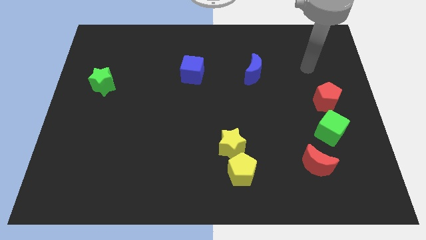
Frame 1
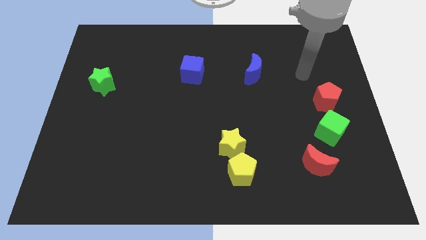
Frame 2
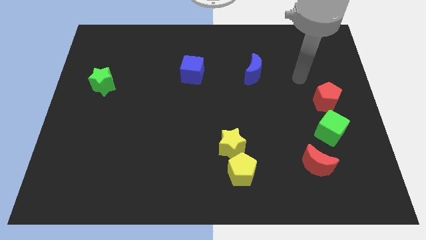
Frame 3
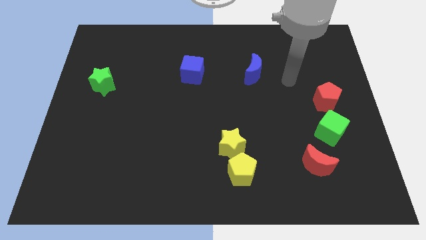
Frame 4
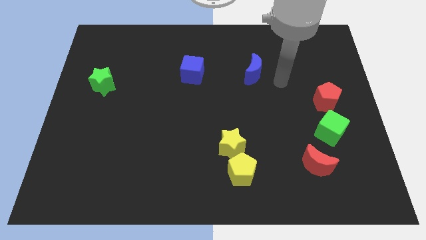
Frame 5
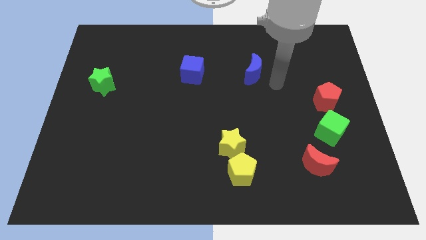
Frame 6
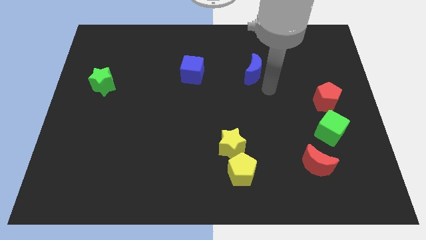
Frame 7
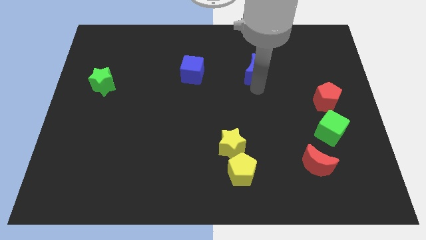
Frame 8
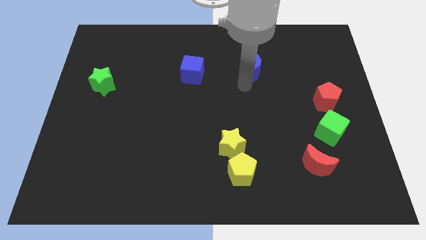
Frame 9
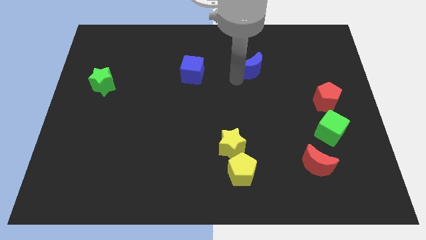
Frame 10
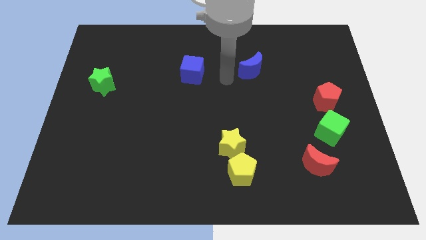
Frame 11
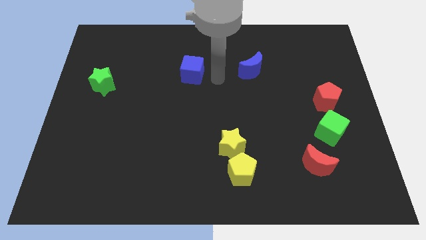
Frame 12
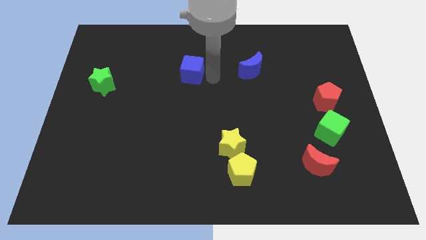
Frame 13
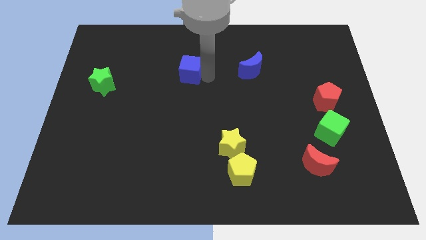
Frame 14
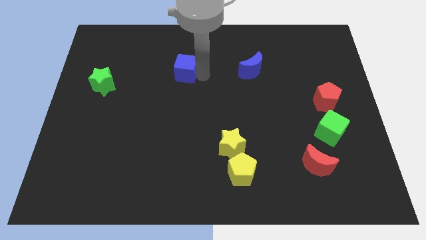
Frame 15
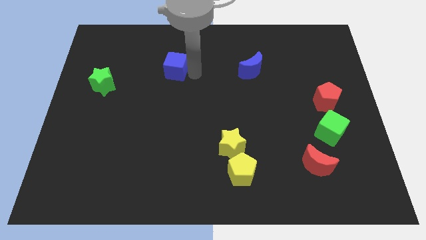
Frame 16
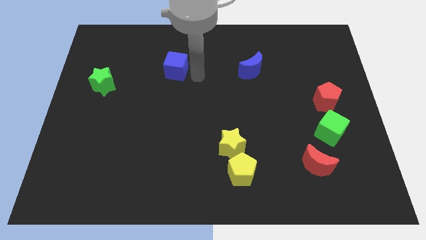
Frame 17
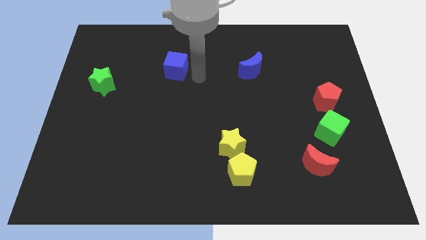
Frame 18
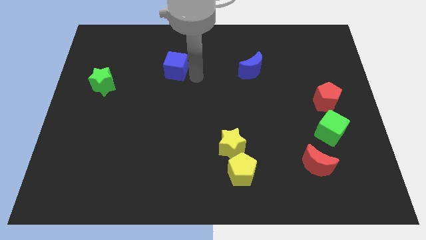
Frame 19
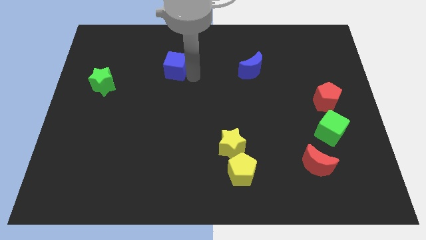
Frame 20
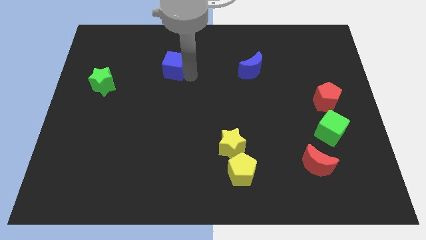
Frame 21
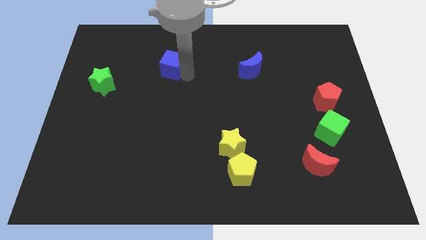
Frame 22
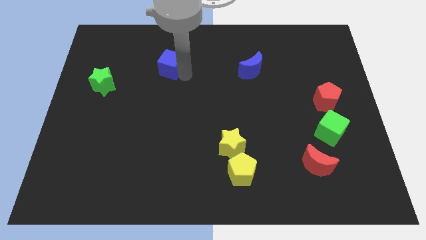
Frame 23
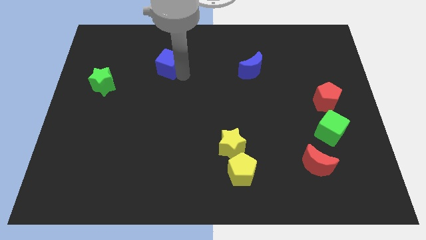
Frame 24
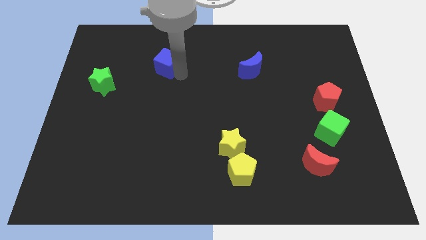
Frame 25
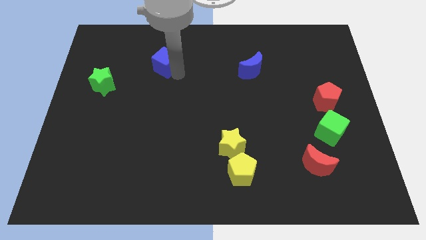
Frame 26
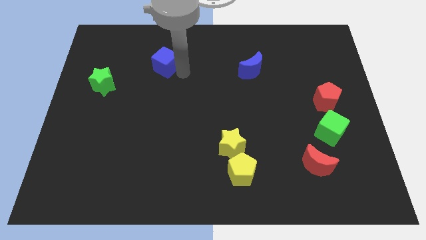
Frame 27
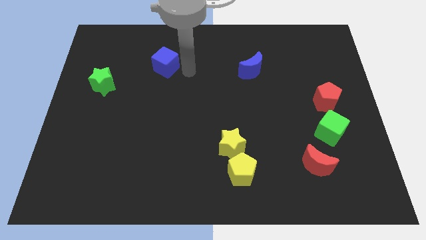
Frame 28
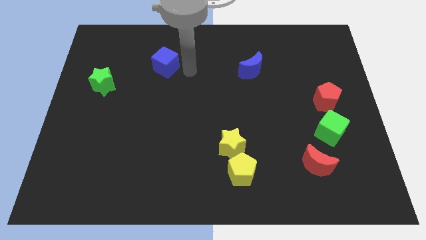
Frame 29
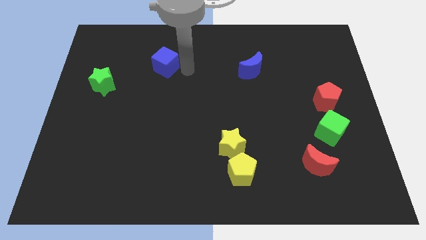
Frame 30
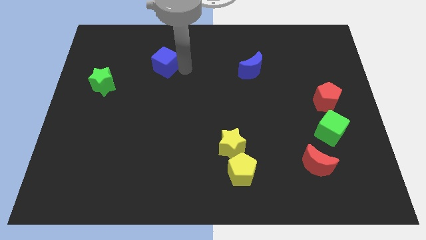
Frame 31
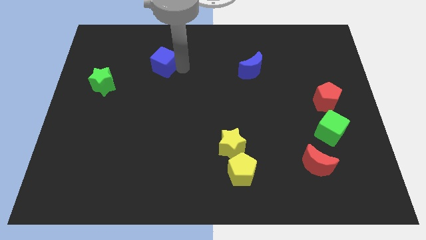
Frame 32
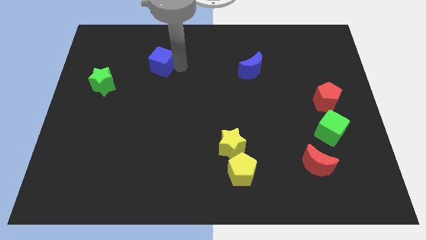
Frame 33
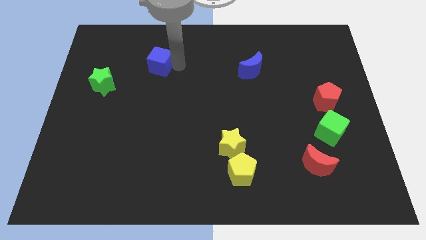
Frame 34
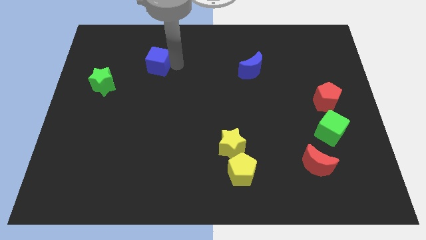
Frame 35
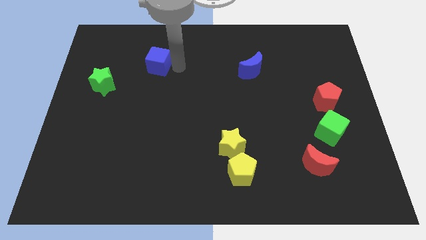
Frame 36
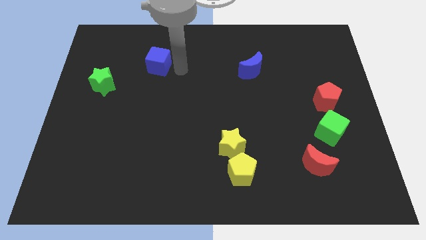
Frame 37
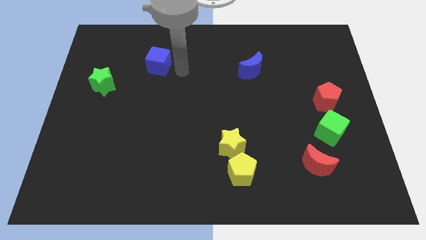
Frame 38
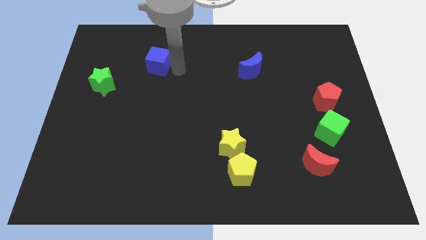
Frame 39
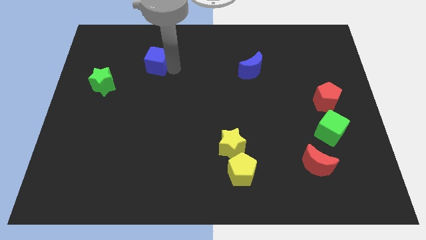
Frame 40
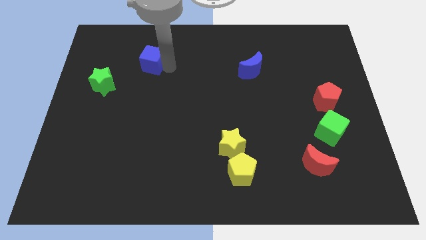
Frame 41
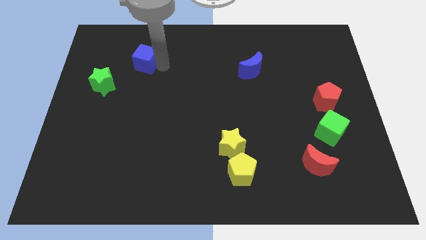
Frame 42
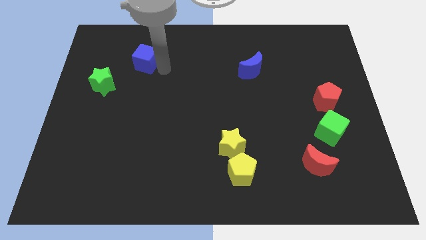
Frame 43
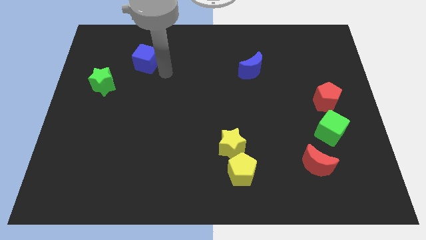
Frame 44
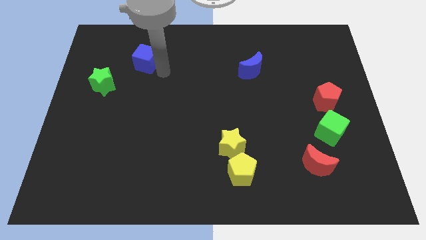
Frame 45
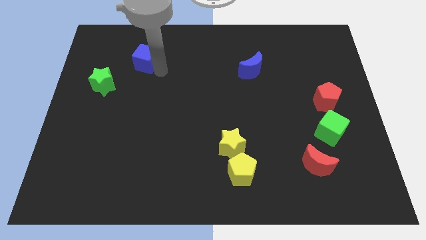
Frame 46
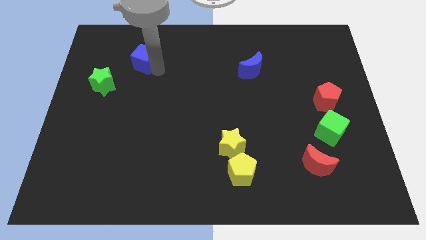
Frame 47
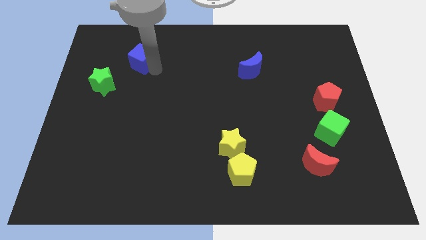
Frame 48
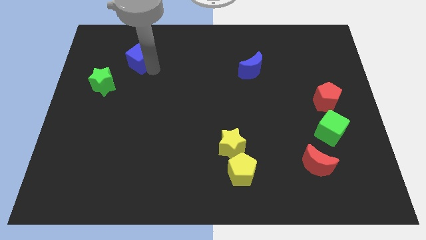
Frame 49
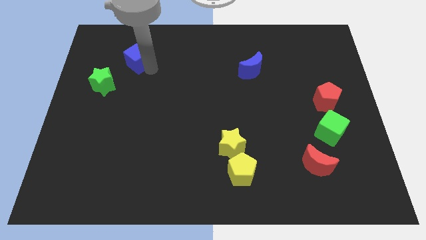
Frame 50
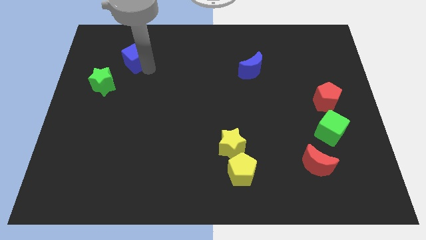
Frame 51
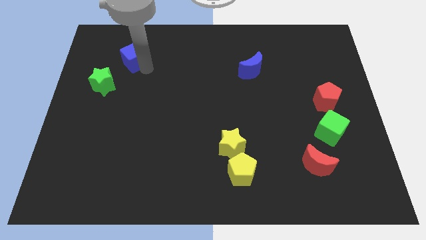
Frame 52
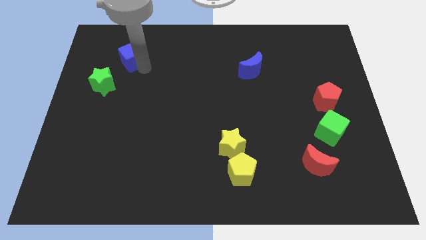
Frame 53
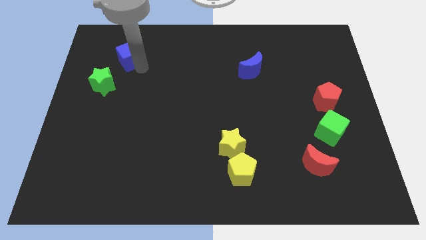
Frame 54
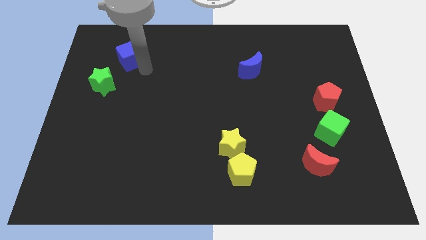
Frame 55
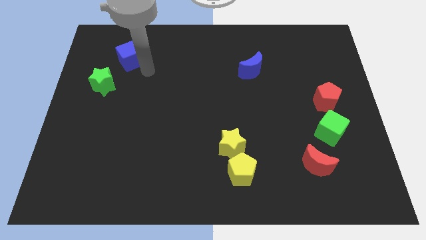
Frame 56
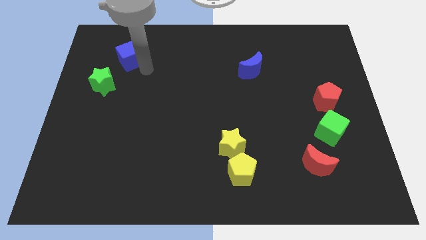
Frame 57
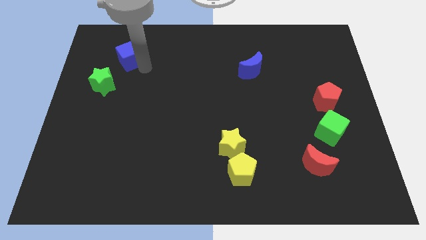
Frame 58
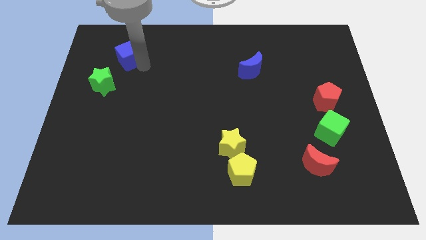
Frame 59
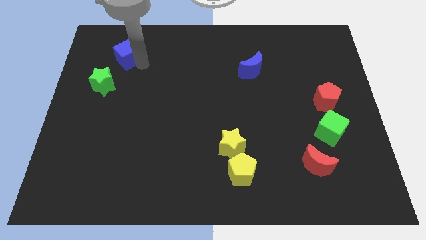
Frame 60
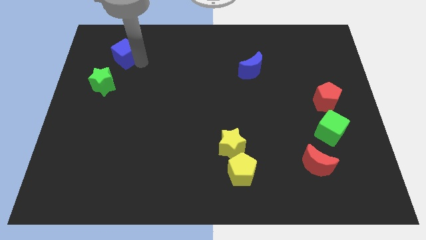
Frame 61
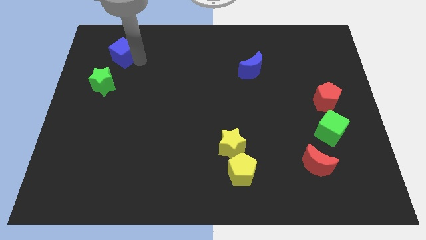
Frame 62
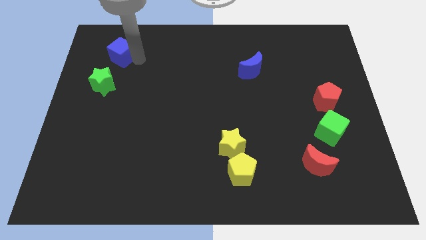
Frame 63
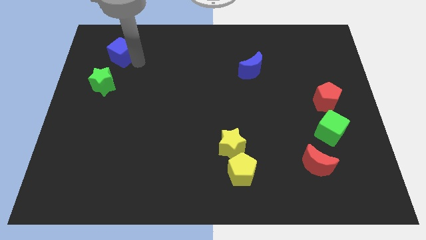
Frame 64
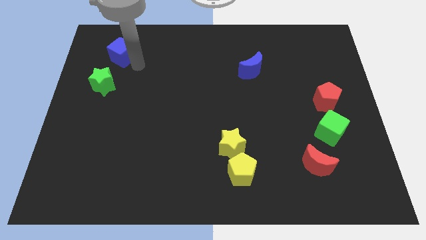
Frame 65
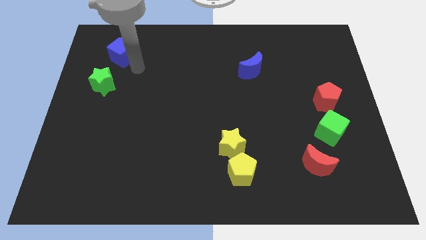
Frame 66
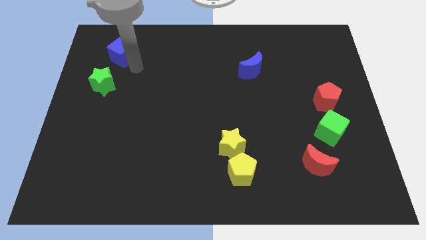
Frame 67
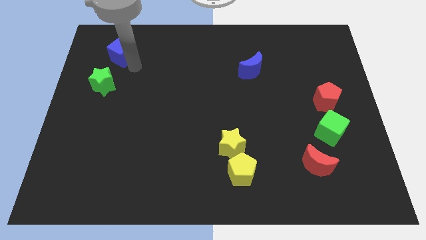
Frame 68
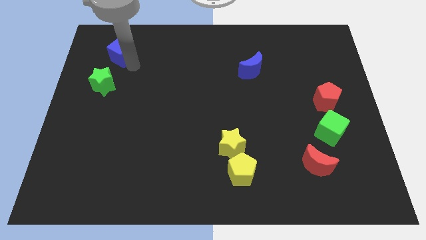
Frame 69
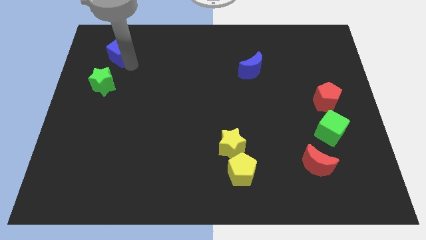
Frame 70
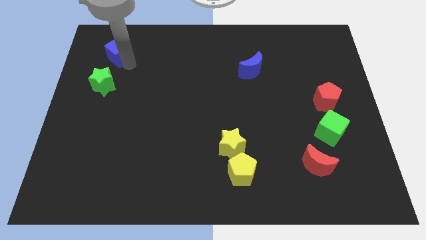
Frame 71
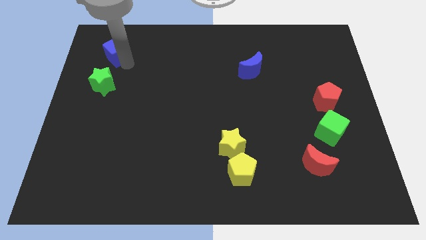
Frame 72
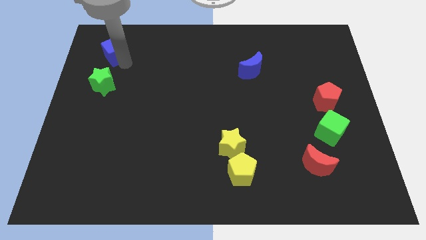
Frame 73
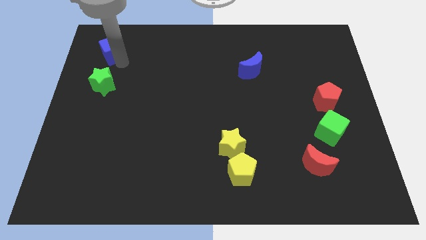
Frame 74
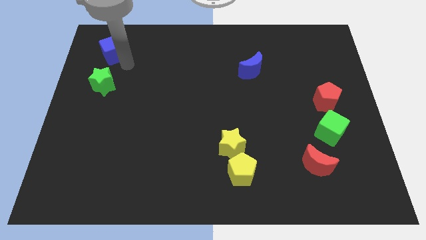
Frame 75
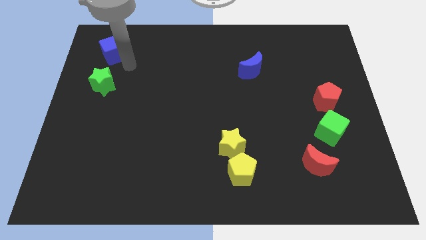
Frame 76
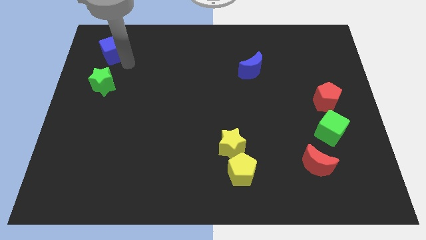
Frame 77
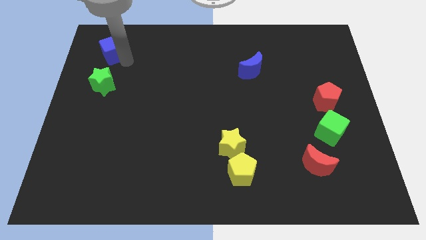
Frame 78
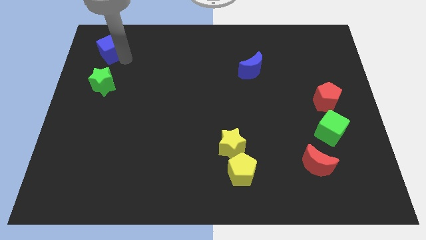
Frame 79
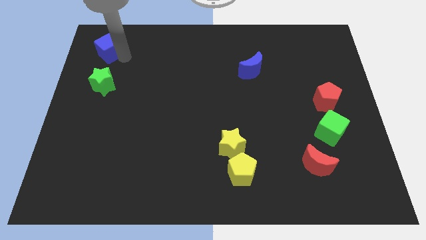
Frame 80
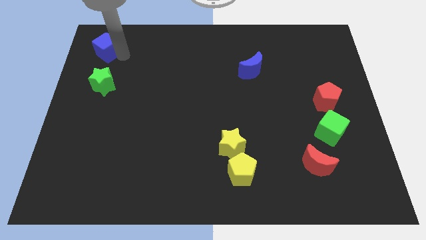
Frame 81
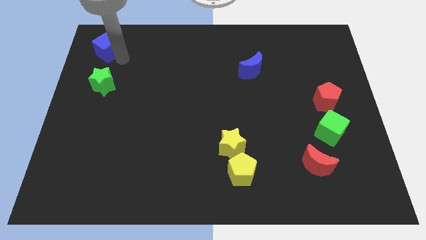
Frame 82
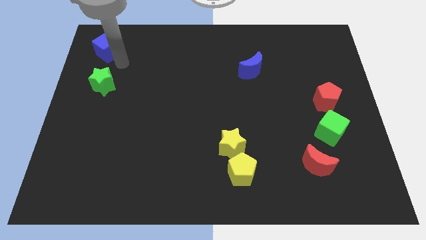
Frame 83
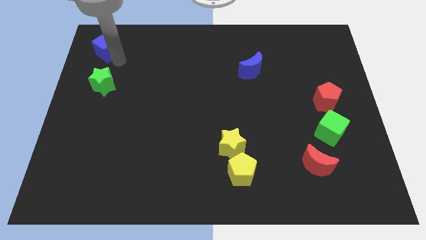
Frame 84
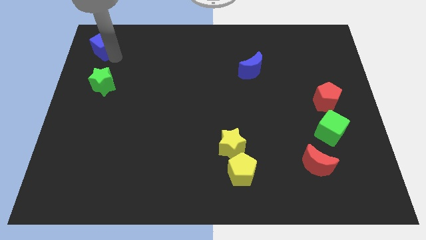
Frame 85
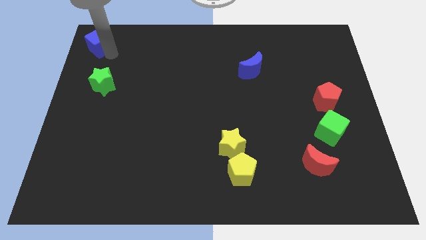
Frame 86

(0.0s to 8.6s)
push the blue cube to the top left
